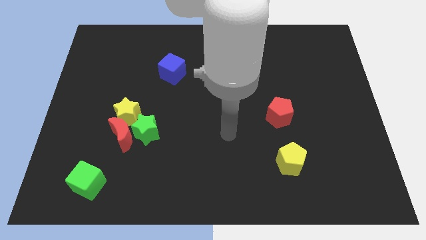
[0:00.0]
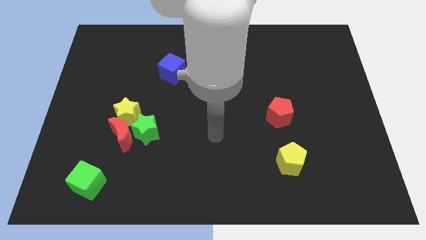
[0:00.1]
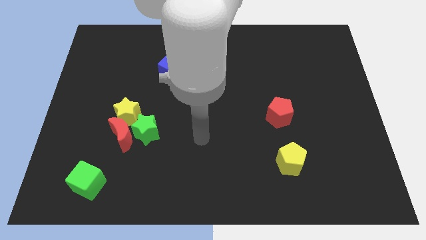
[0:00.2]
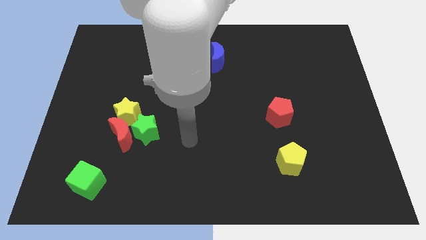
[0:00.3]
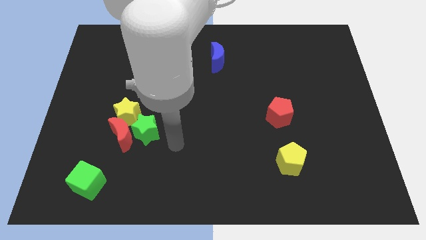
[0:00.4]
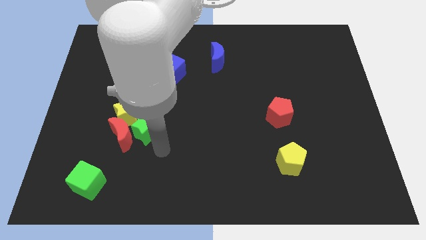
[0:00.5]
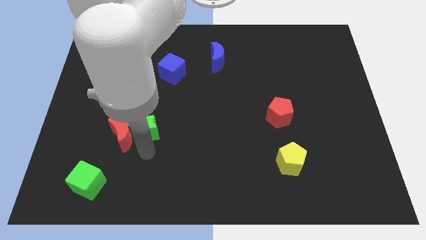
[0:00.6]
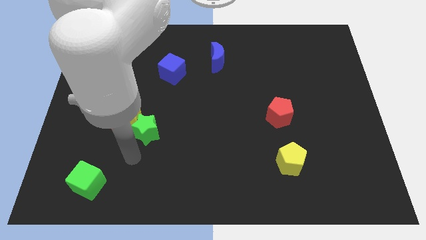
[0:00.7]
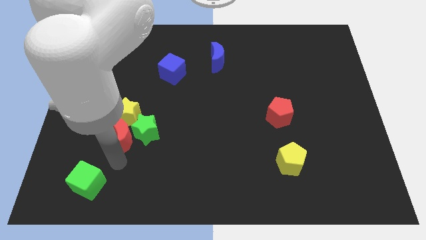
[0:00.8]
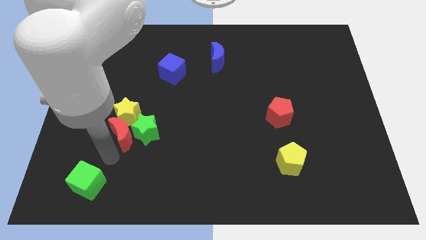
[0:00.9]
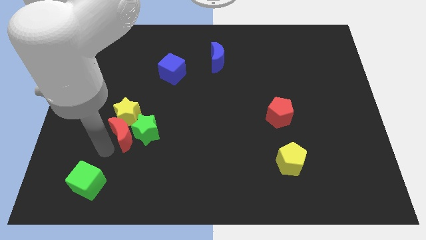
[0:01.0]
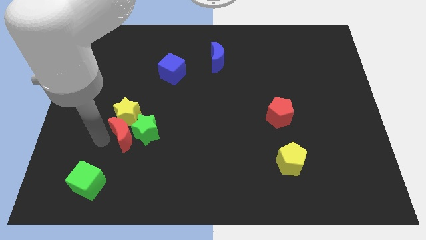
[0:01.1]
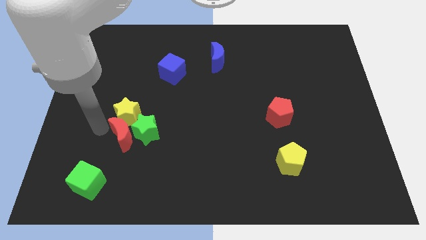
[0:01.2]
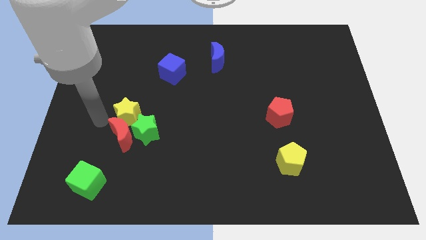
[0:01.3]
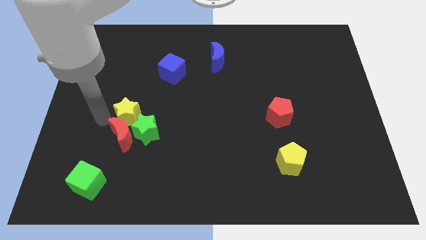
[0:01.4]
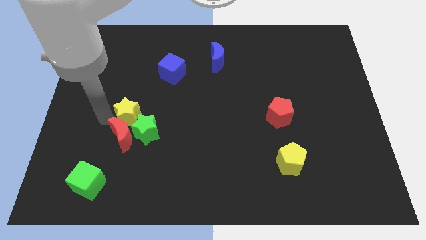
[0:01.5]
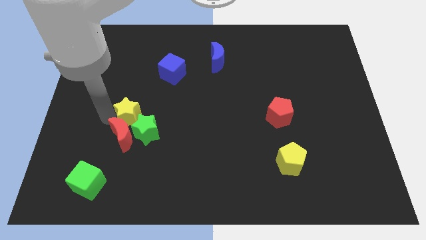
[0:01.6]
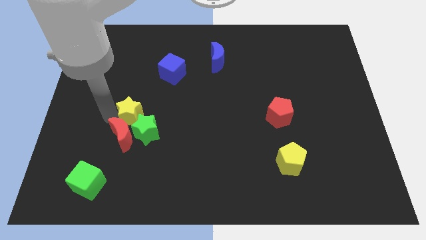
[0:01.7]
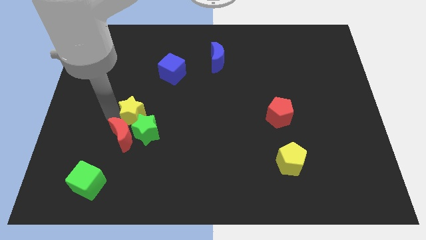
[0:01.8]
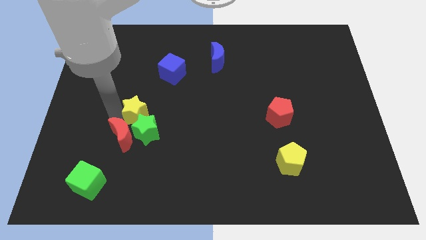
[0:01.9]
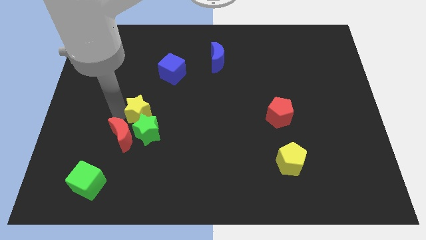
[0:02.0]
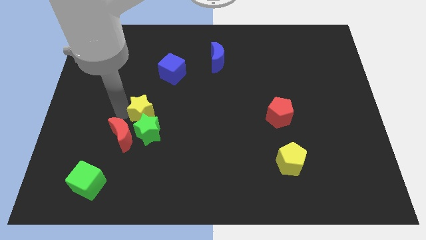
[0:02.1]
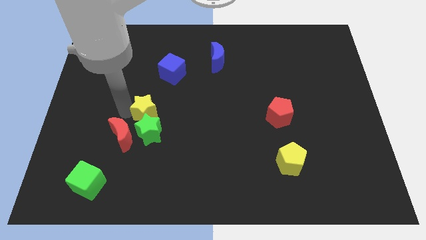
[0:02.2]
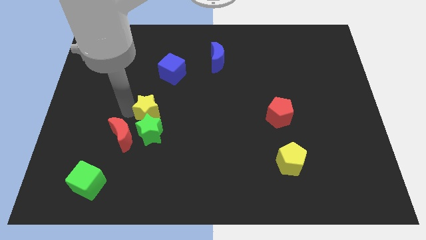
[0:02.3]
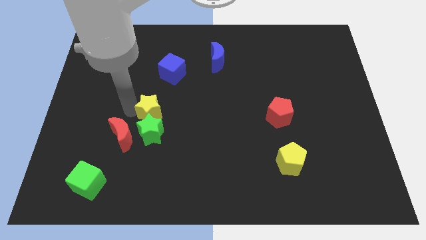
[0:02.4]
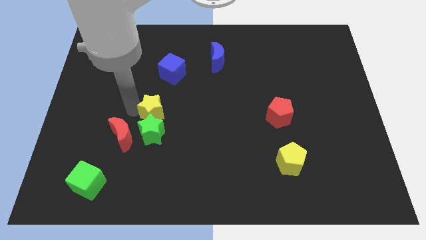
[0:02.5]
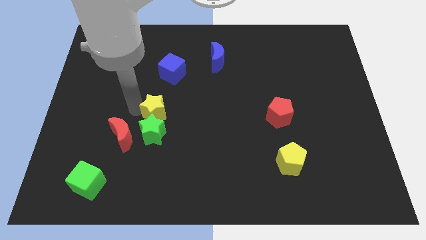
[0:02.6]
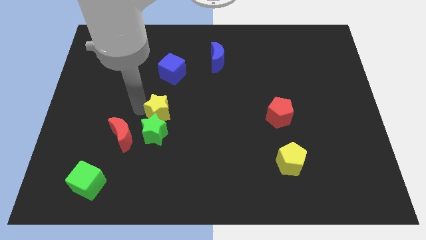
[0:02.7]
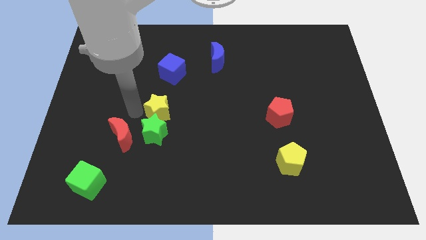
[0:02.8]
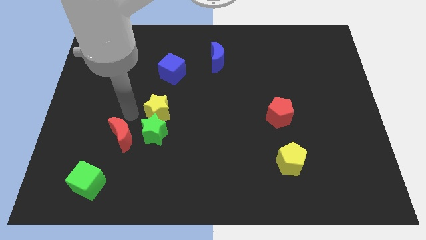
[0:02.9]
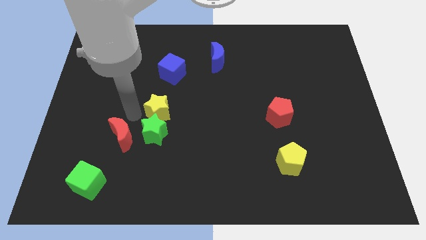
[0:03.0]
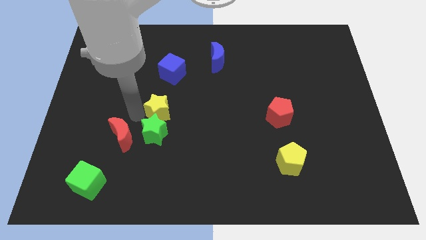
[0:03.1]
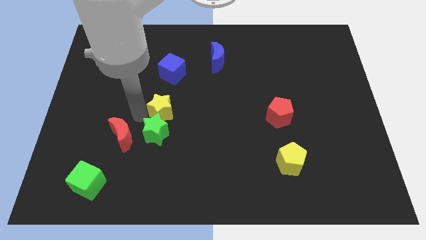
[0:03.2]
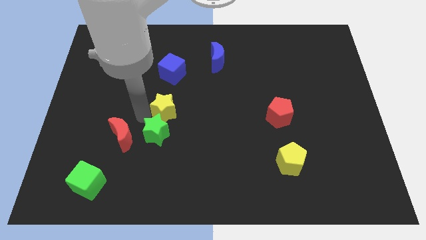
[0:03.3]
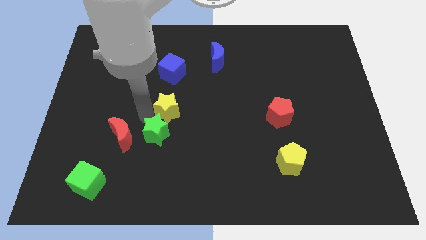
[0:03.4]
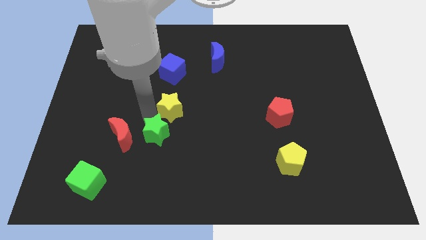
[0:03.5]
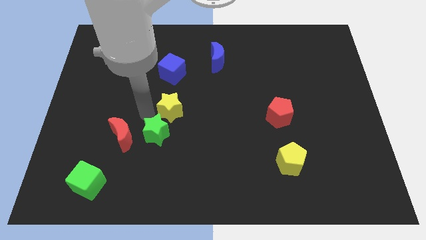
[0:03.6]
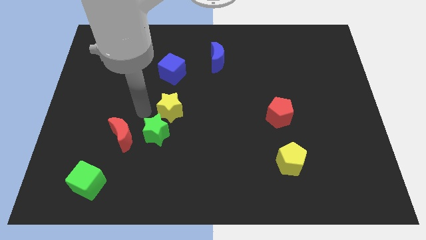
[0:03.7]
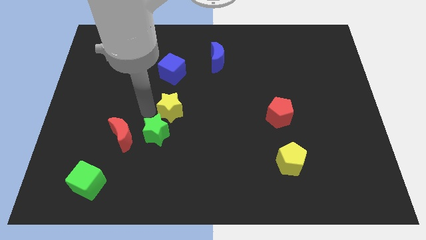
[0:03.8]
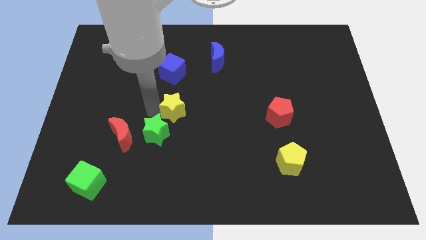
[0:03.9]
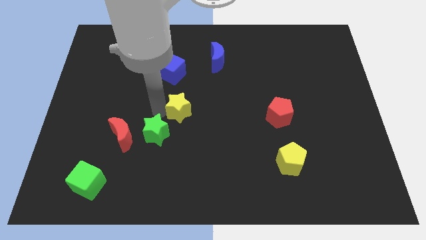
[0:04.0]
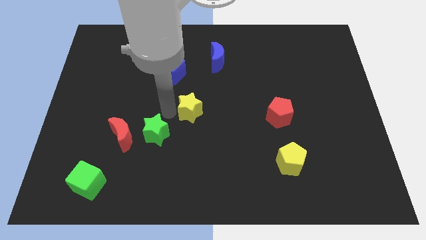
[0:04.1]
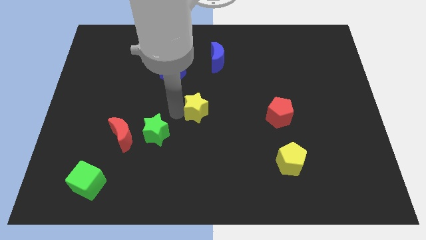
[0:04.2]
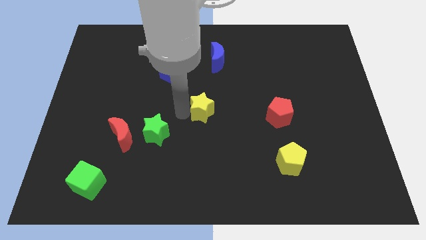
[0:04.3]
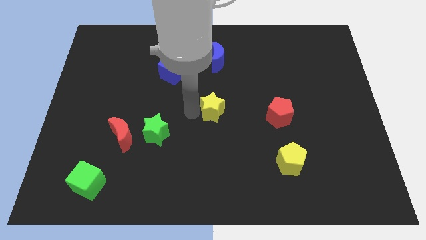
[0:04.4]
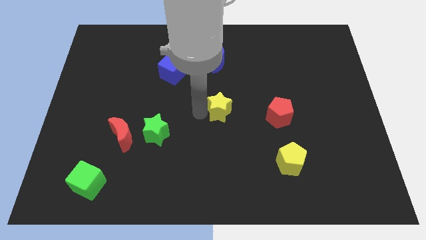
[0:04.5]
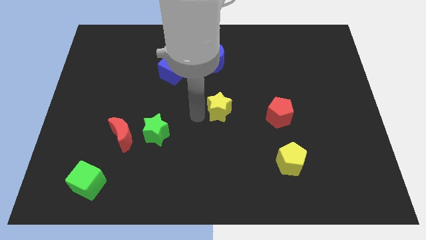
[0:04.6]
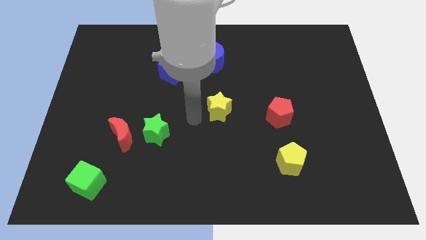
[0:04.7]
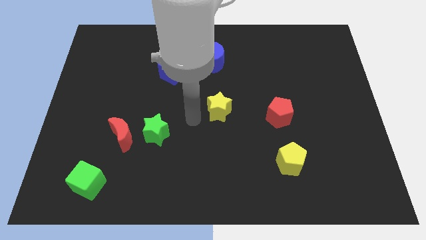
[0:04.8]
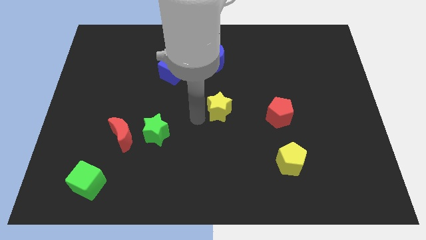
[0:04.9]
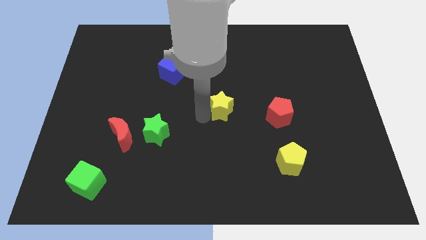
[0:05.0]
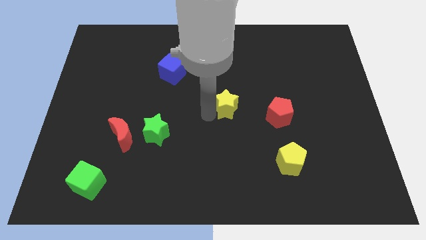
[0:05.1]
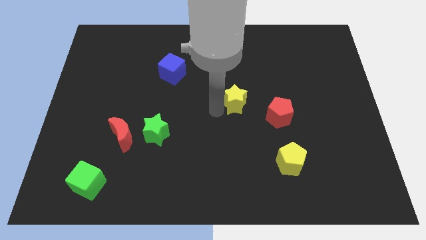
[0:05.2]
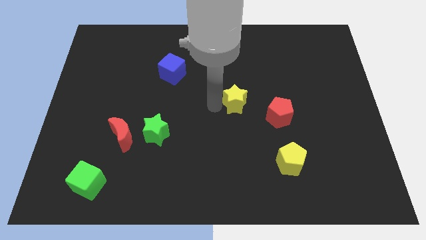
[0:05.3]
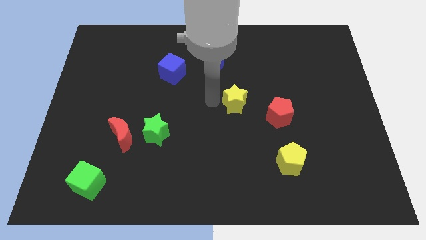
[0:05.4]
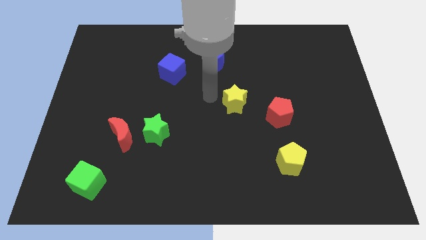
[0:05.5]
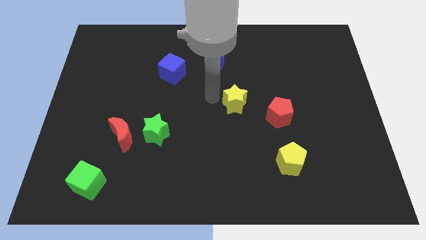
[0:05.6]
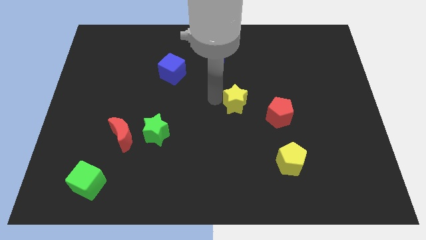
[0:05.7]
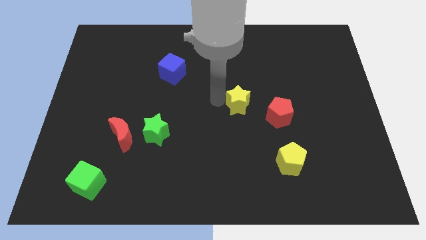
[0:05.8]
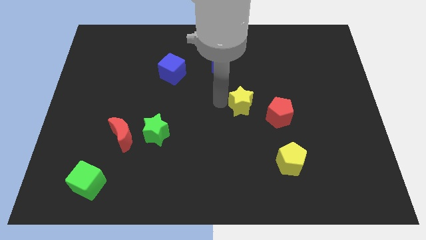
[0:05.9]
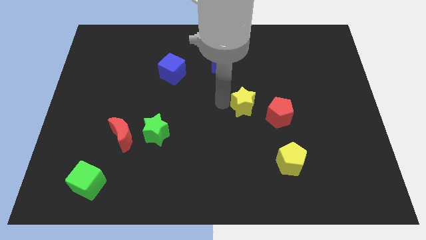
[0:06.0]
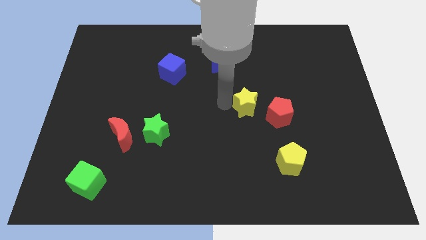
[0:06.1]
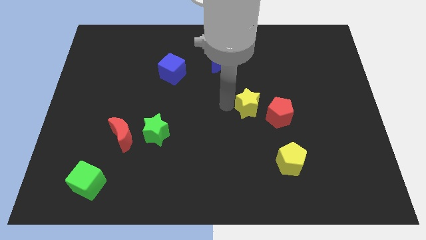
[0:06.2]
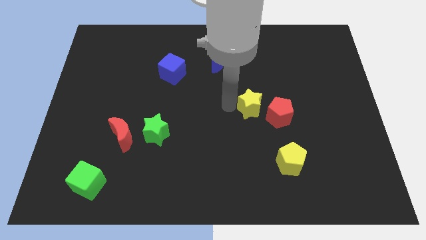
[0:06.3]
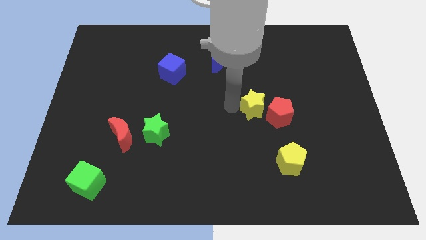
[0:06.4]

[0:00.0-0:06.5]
push the yellow star to the red pentagon

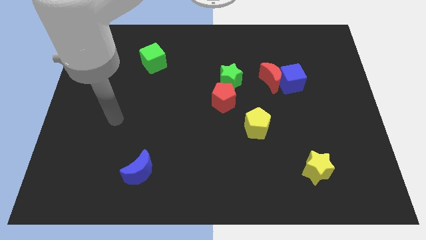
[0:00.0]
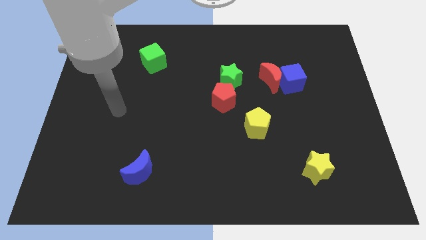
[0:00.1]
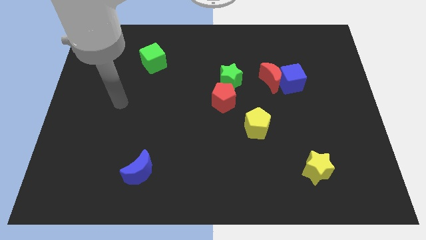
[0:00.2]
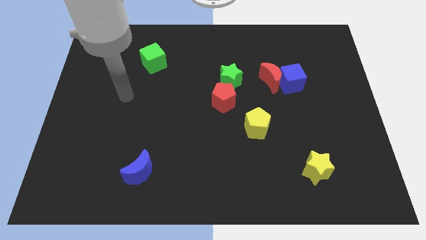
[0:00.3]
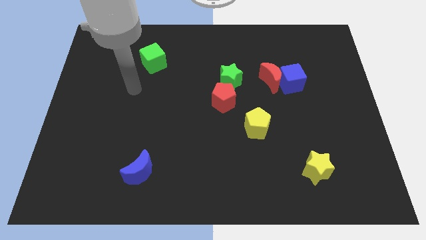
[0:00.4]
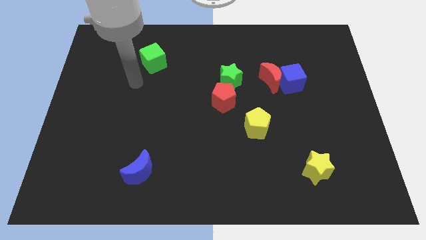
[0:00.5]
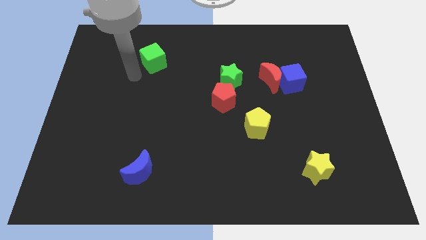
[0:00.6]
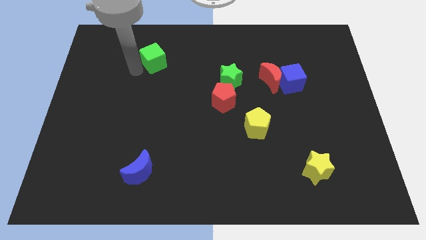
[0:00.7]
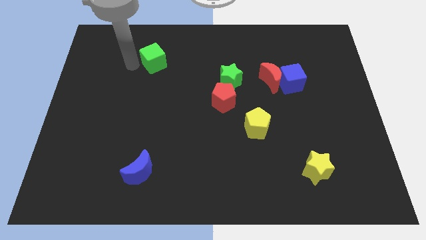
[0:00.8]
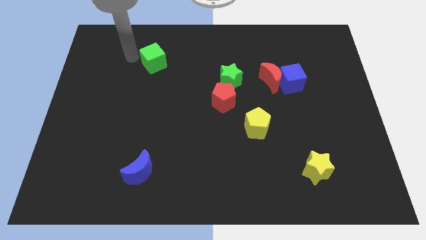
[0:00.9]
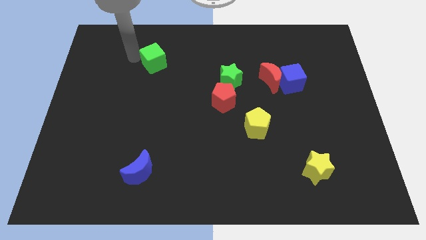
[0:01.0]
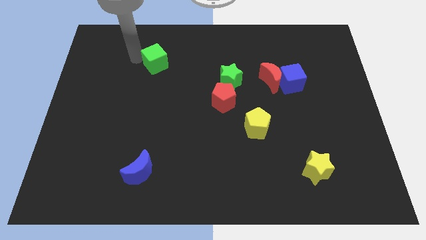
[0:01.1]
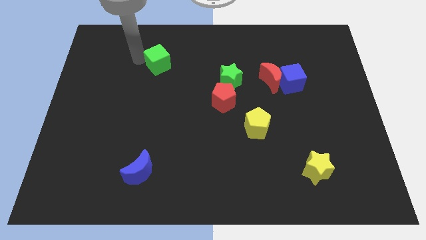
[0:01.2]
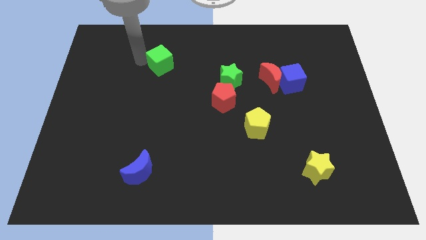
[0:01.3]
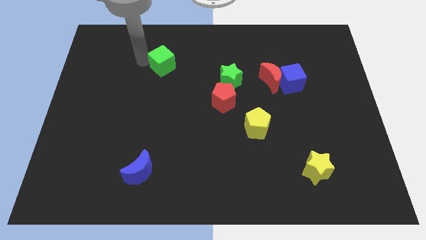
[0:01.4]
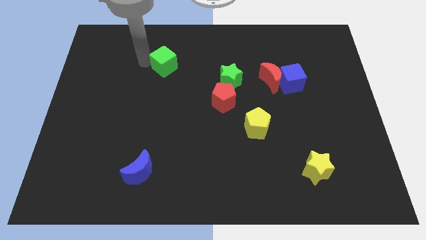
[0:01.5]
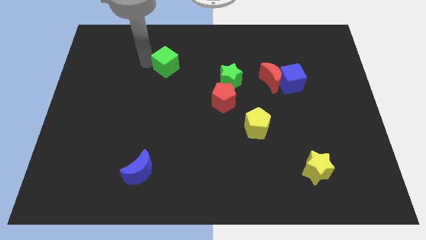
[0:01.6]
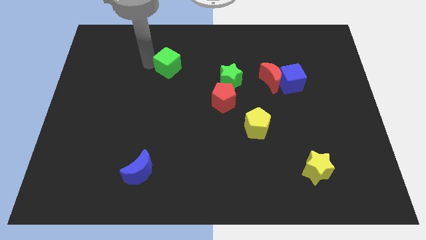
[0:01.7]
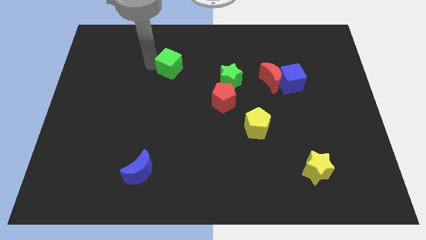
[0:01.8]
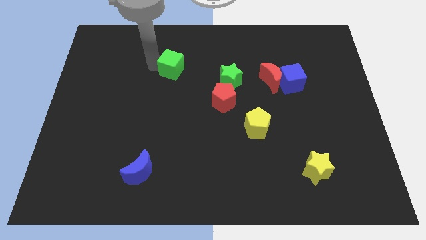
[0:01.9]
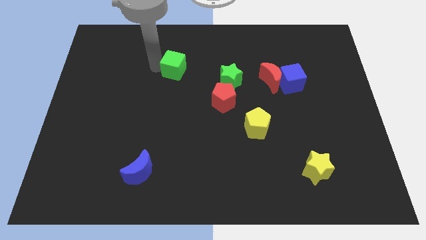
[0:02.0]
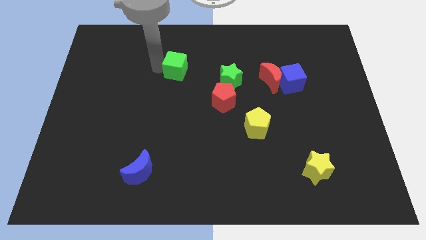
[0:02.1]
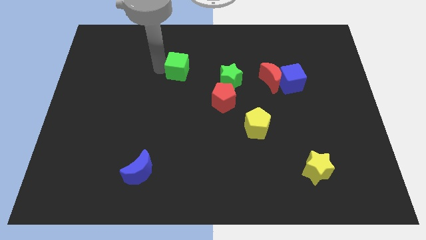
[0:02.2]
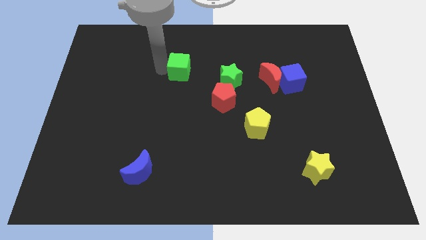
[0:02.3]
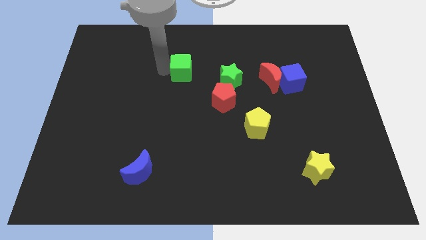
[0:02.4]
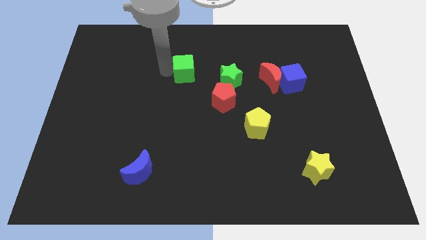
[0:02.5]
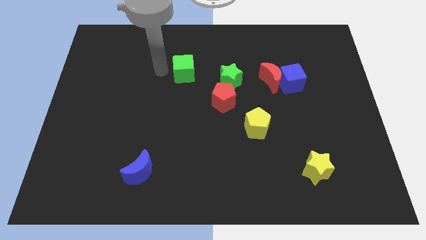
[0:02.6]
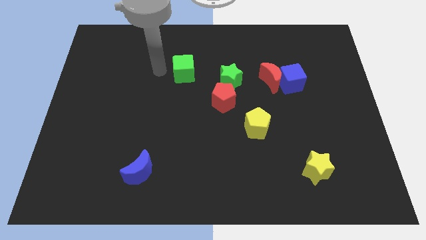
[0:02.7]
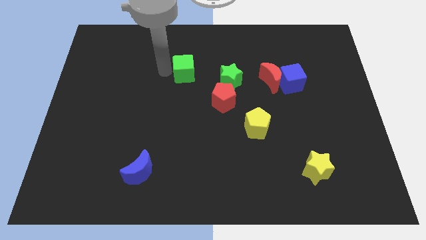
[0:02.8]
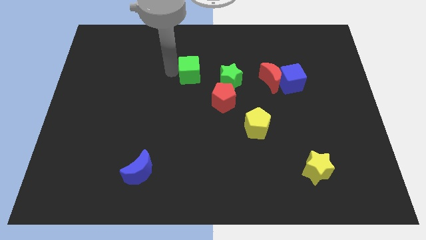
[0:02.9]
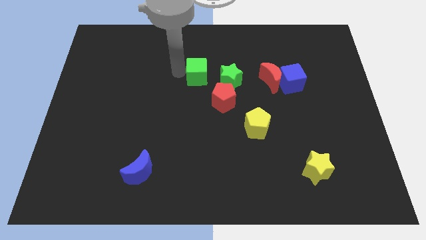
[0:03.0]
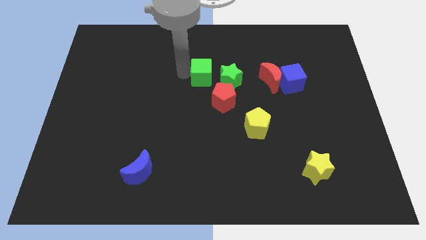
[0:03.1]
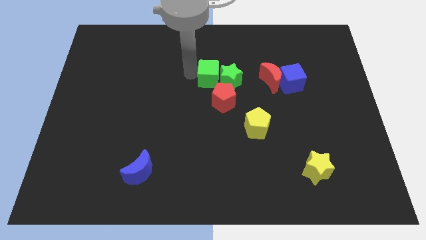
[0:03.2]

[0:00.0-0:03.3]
push the green cube close to the green star
